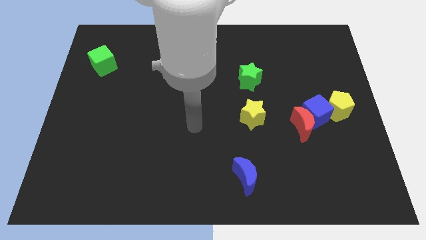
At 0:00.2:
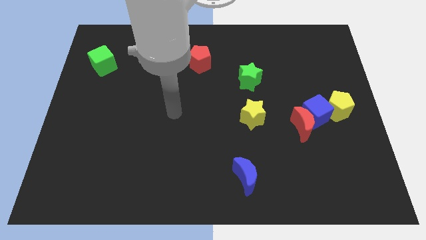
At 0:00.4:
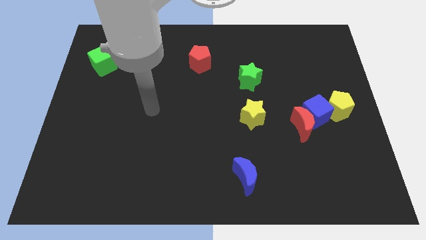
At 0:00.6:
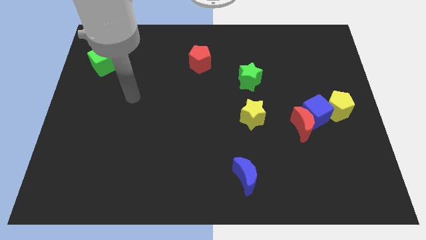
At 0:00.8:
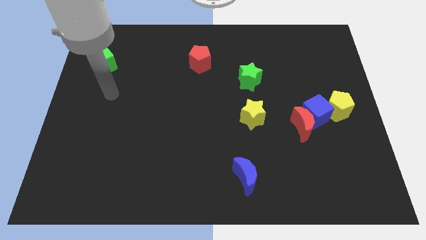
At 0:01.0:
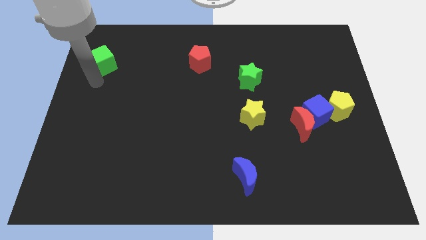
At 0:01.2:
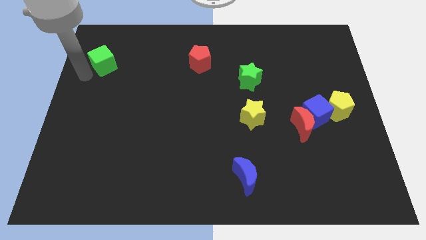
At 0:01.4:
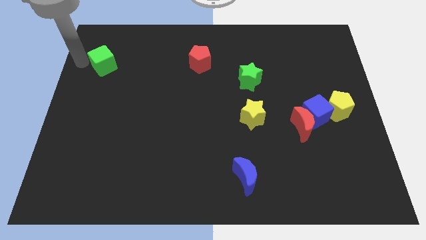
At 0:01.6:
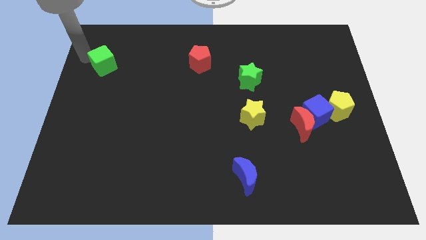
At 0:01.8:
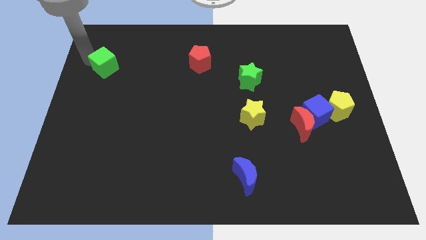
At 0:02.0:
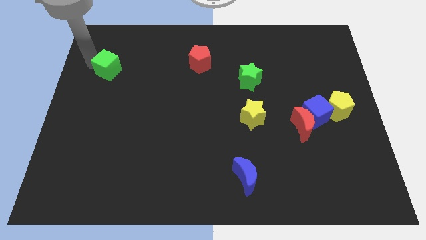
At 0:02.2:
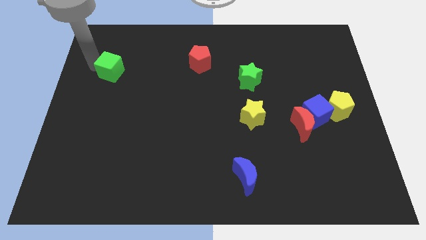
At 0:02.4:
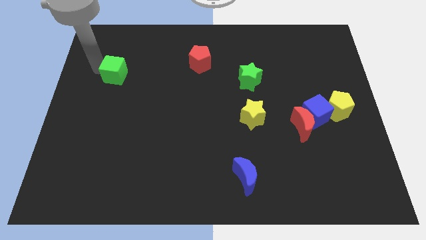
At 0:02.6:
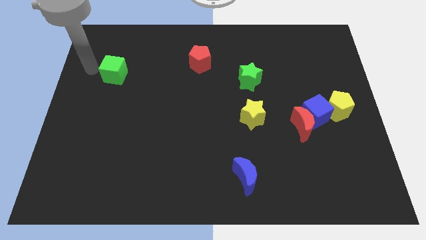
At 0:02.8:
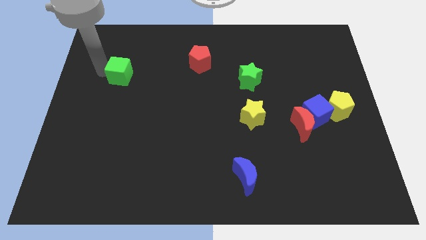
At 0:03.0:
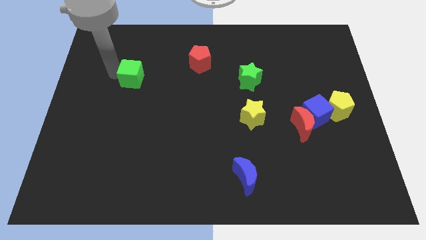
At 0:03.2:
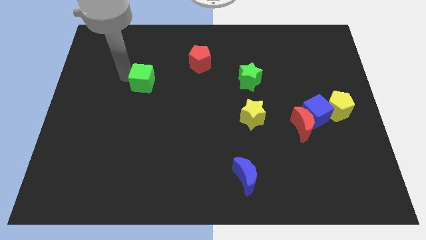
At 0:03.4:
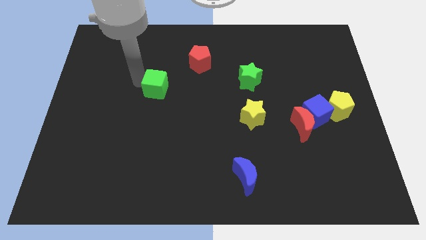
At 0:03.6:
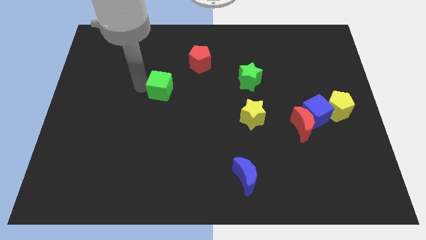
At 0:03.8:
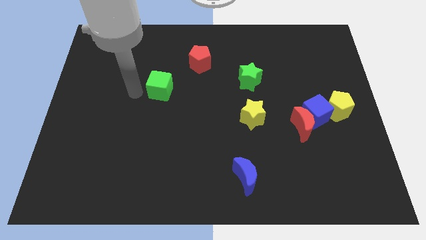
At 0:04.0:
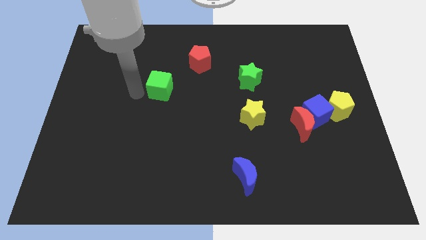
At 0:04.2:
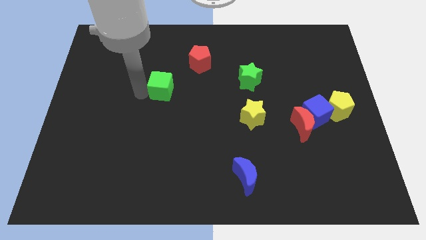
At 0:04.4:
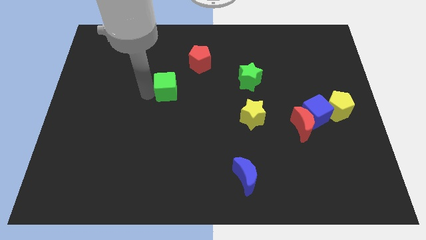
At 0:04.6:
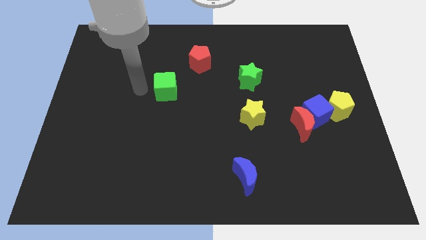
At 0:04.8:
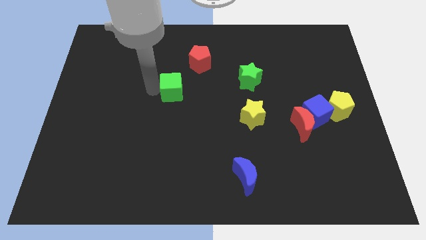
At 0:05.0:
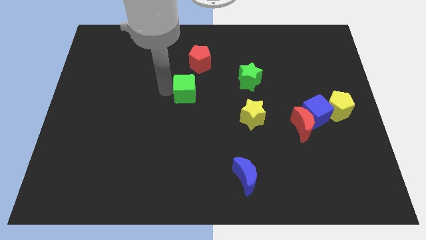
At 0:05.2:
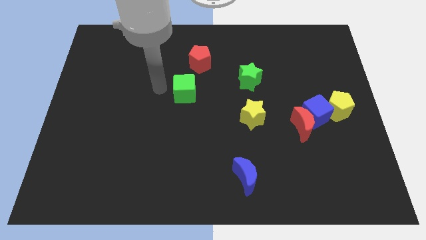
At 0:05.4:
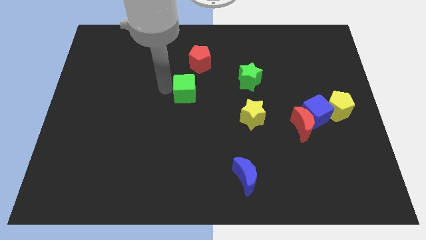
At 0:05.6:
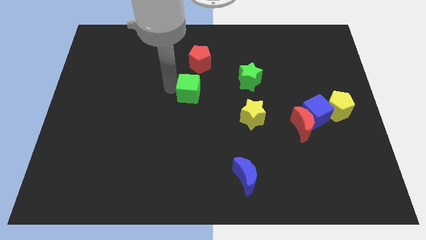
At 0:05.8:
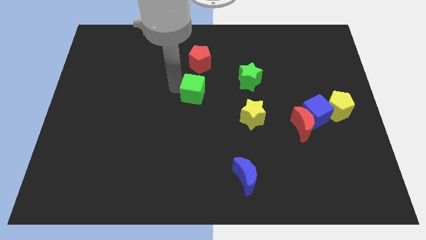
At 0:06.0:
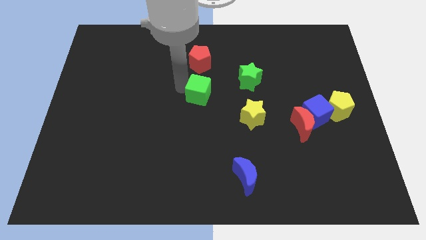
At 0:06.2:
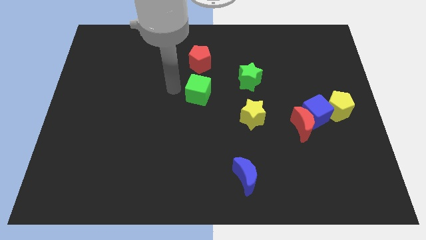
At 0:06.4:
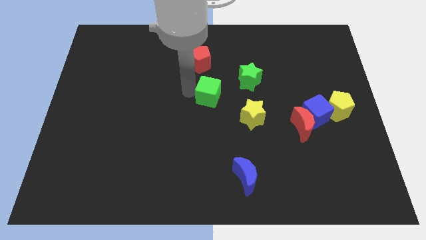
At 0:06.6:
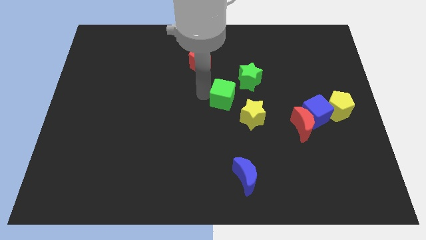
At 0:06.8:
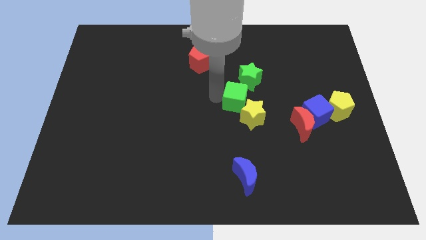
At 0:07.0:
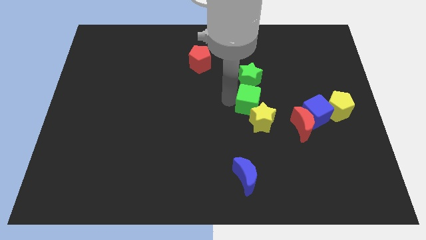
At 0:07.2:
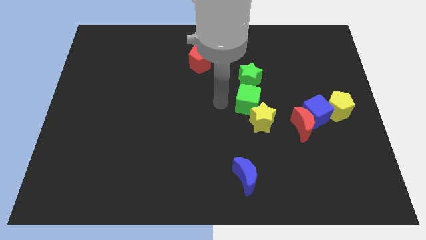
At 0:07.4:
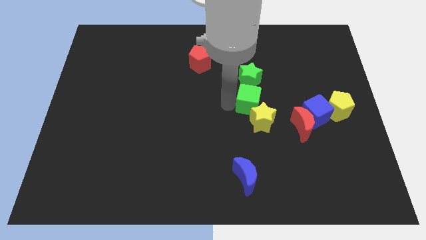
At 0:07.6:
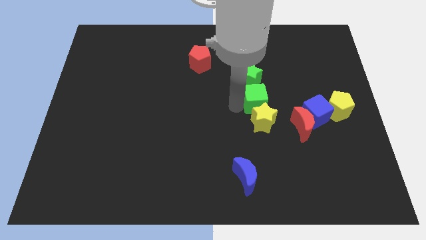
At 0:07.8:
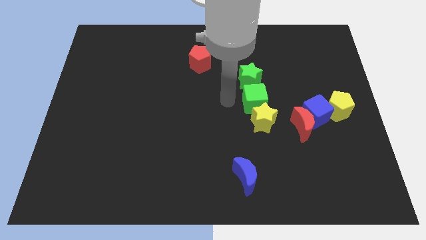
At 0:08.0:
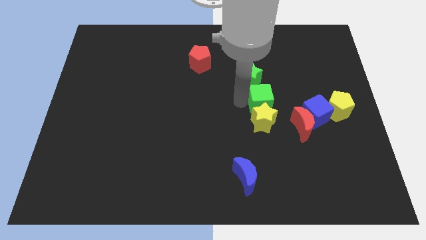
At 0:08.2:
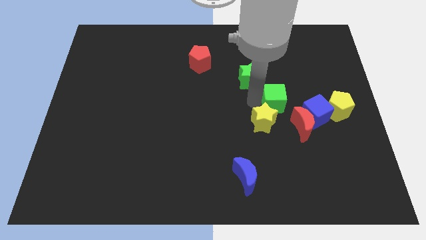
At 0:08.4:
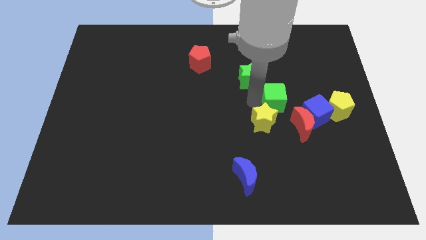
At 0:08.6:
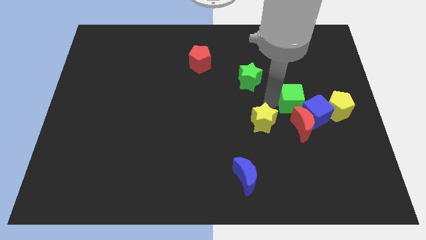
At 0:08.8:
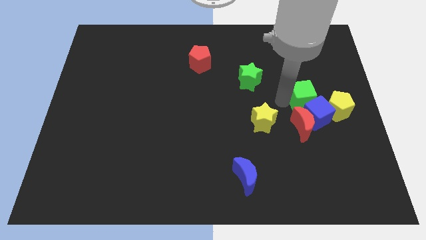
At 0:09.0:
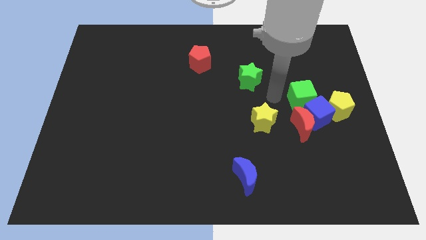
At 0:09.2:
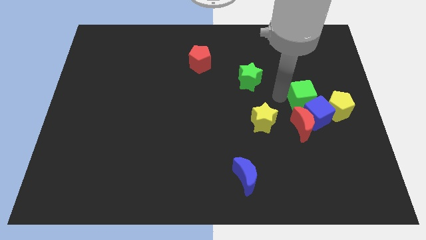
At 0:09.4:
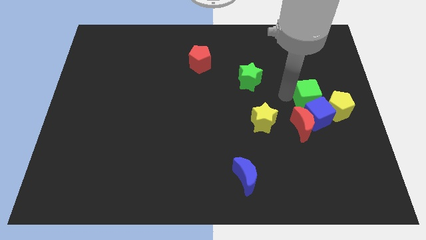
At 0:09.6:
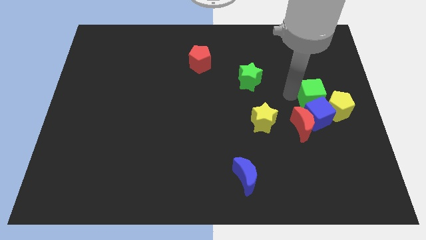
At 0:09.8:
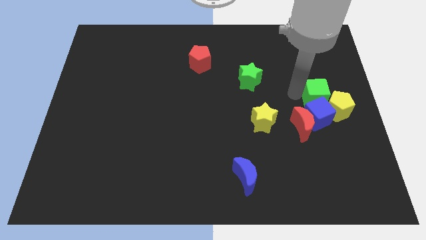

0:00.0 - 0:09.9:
move the green cube towards the yellow pentagon

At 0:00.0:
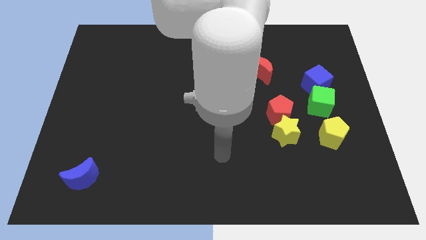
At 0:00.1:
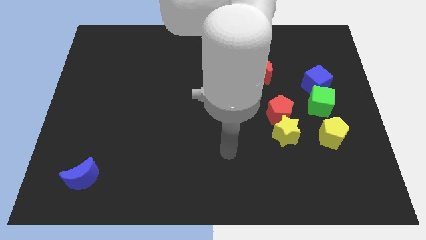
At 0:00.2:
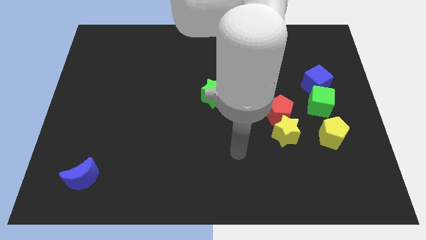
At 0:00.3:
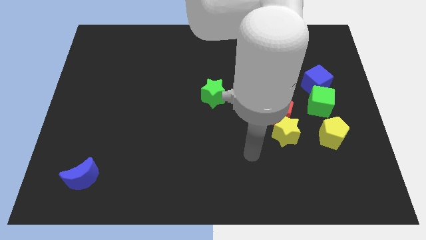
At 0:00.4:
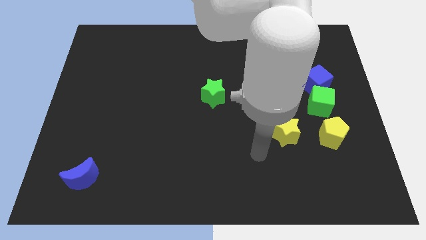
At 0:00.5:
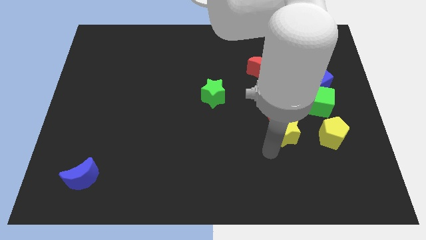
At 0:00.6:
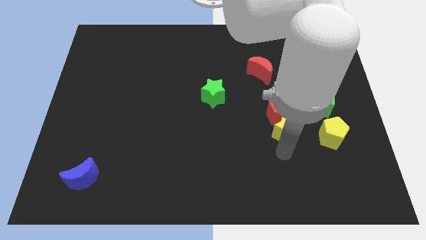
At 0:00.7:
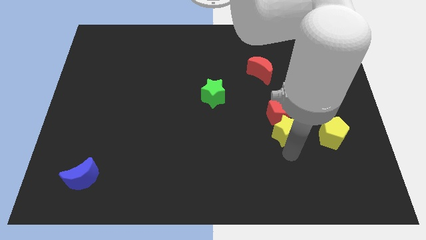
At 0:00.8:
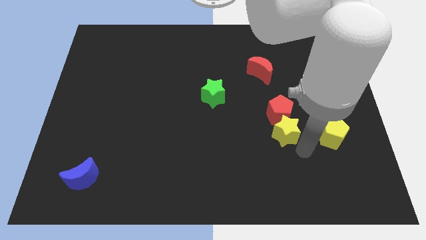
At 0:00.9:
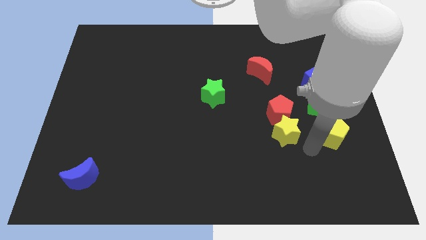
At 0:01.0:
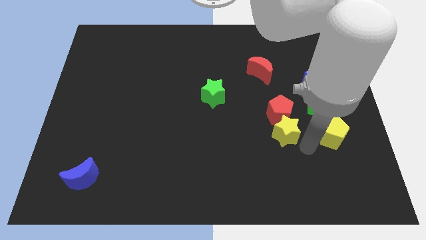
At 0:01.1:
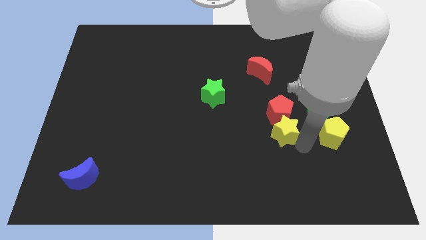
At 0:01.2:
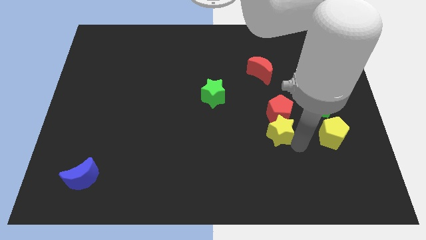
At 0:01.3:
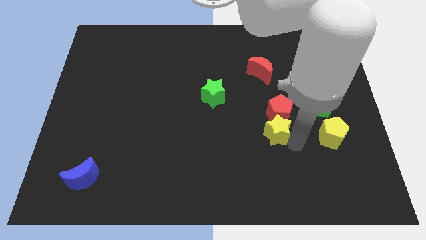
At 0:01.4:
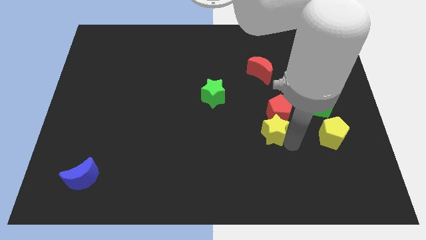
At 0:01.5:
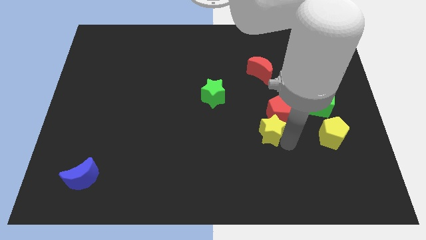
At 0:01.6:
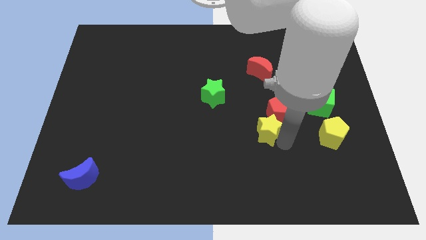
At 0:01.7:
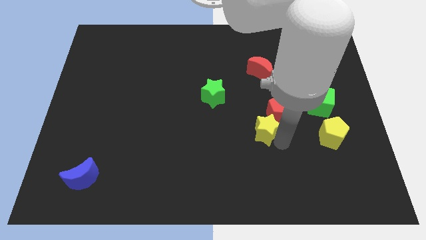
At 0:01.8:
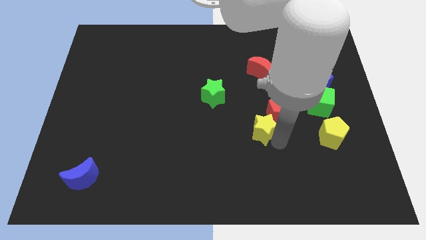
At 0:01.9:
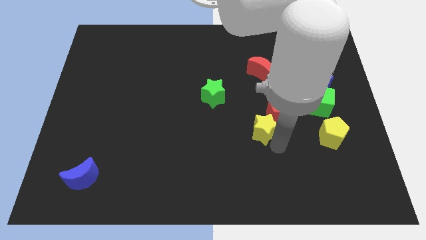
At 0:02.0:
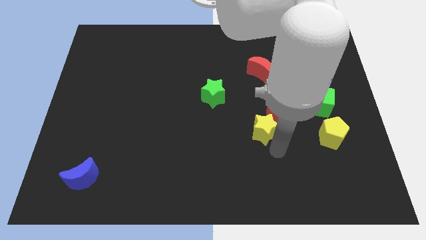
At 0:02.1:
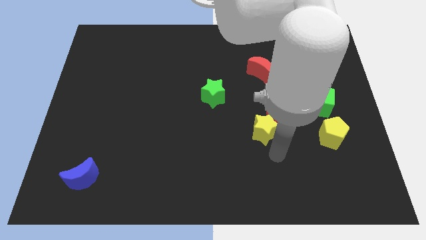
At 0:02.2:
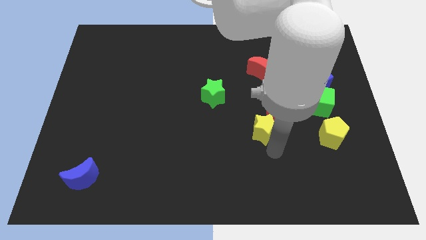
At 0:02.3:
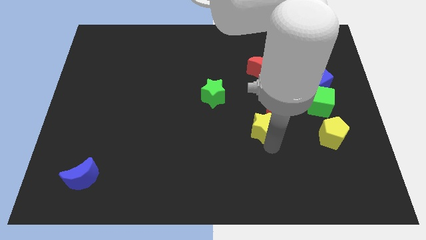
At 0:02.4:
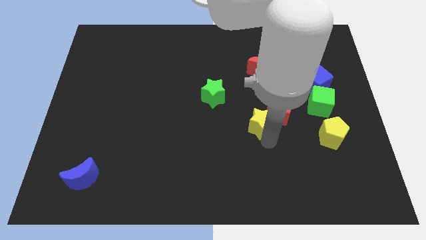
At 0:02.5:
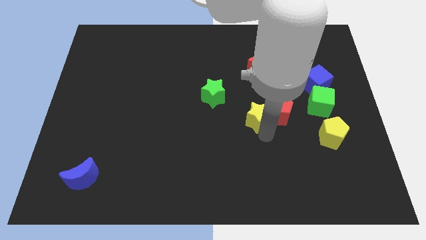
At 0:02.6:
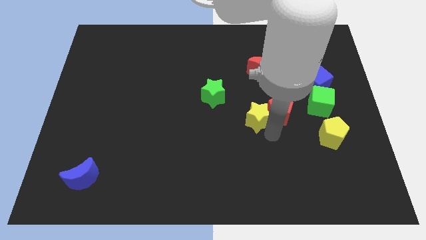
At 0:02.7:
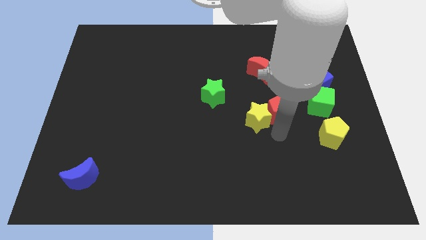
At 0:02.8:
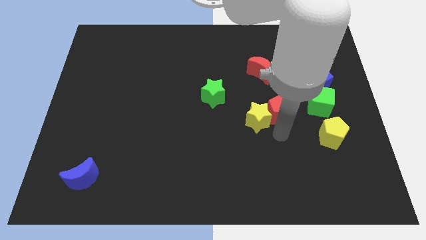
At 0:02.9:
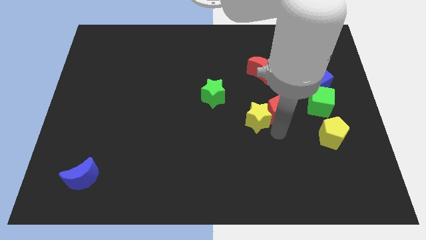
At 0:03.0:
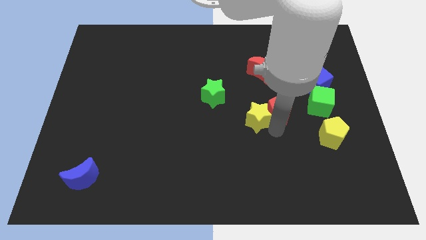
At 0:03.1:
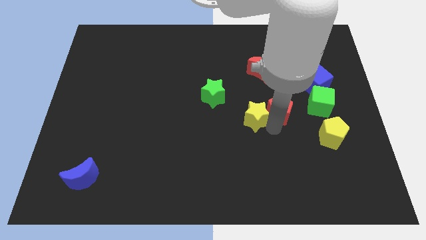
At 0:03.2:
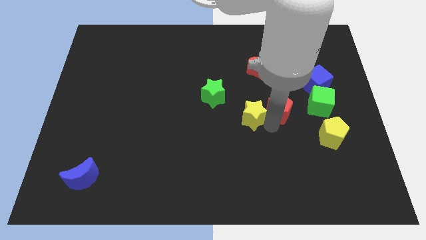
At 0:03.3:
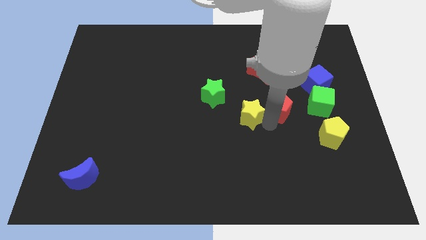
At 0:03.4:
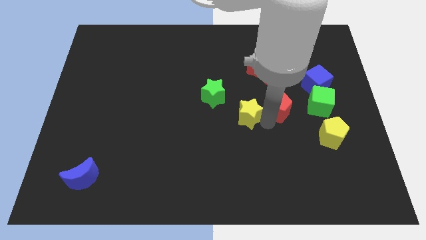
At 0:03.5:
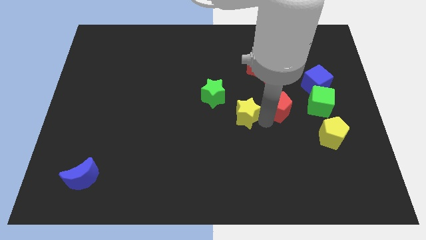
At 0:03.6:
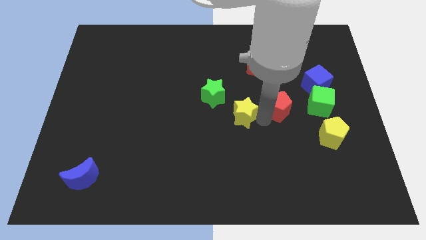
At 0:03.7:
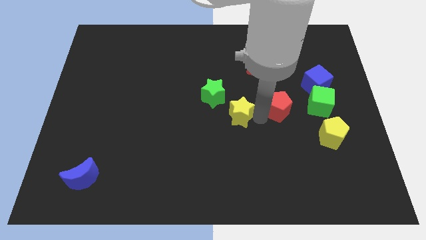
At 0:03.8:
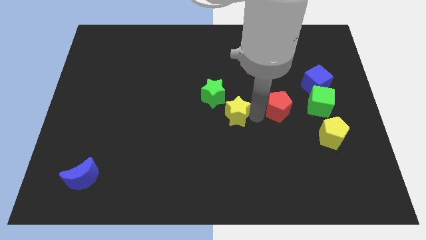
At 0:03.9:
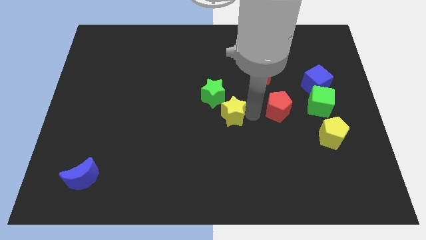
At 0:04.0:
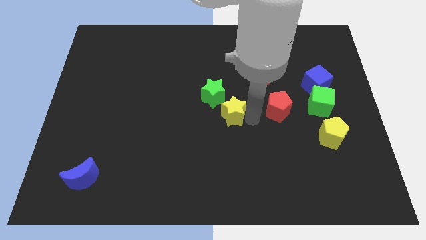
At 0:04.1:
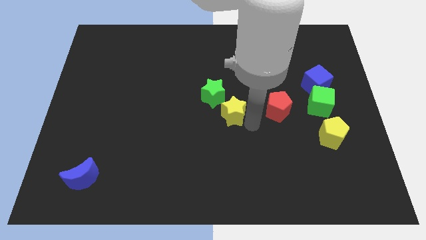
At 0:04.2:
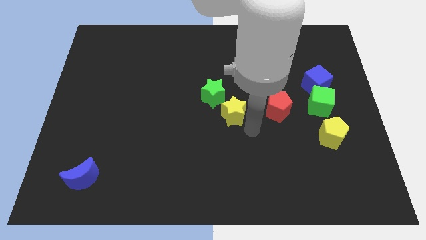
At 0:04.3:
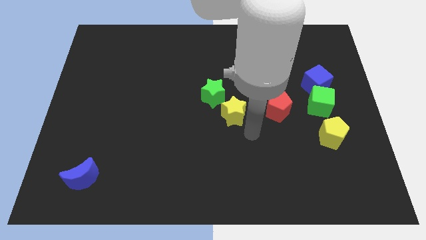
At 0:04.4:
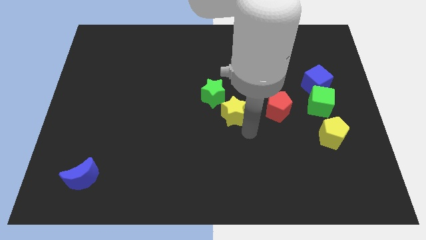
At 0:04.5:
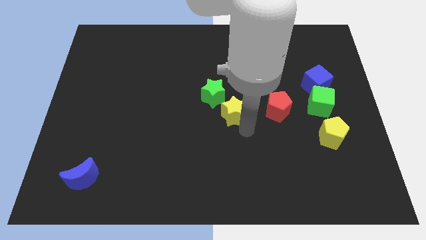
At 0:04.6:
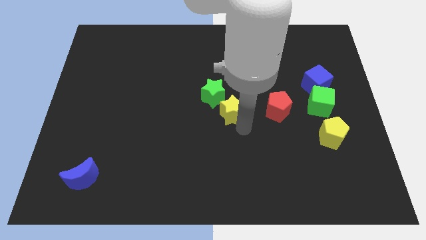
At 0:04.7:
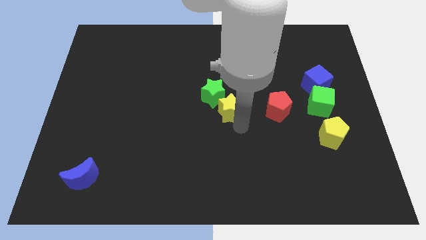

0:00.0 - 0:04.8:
move the yellow star next to the green star
